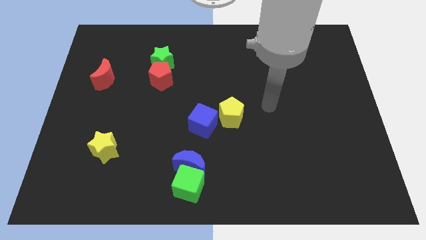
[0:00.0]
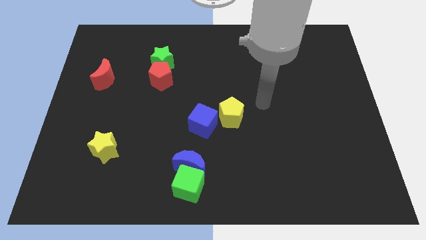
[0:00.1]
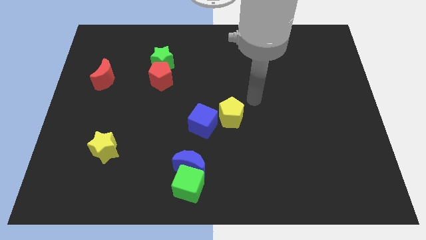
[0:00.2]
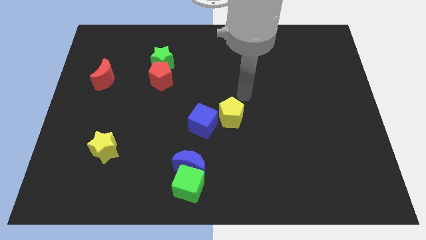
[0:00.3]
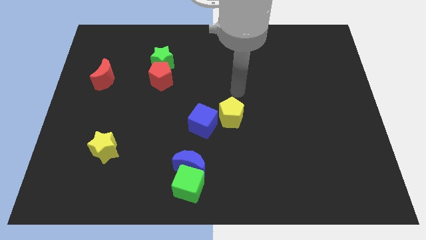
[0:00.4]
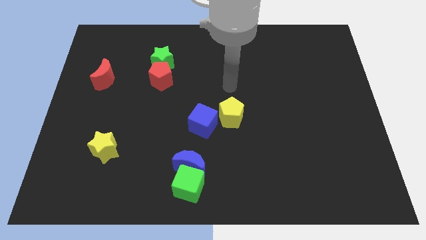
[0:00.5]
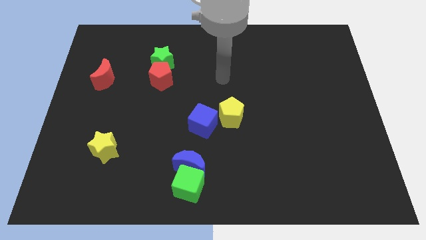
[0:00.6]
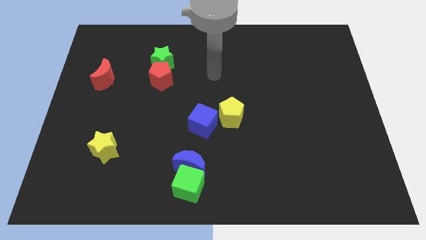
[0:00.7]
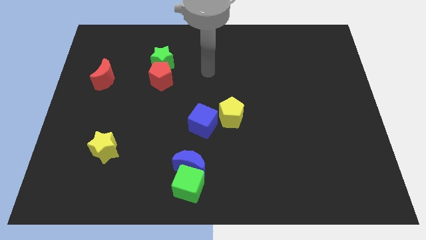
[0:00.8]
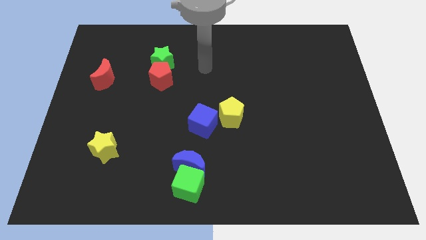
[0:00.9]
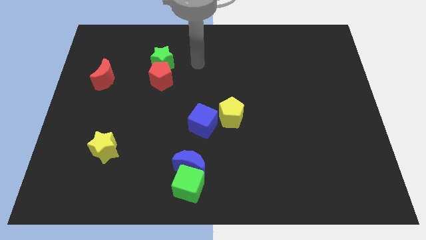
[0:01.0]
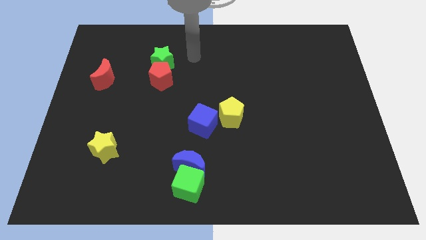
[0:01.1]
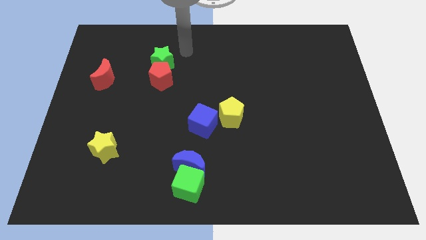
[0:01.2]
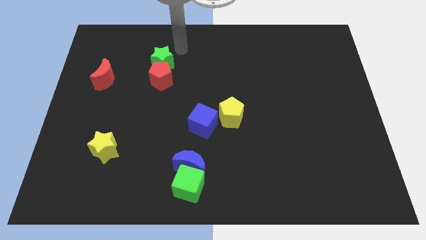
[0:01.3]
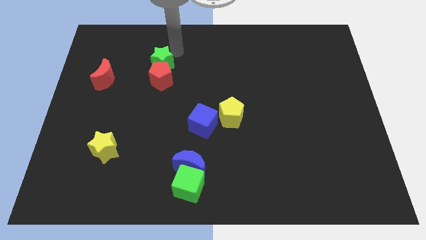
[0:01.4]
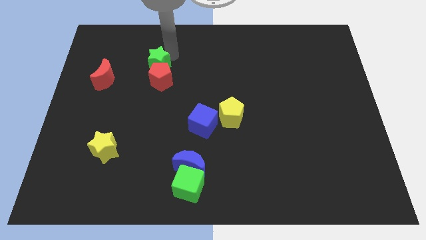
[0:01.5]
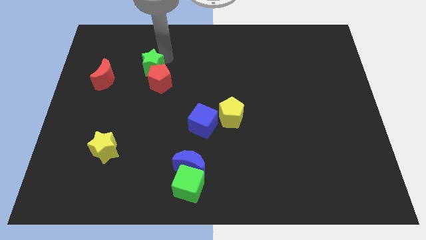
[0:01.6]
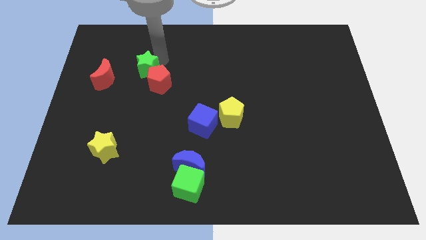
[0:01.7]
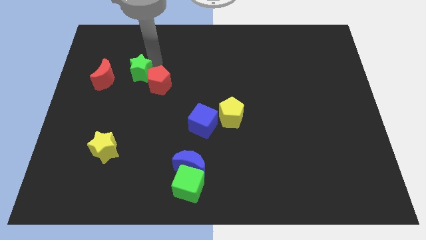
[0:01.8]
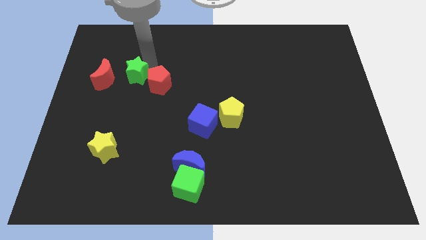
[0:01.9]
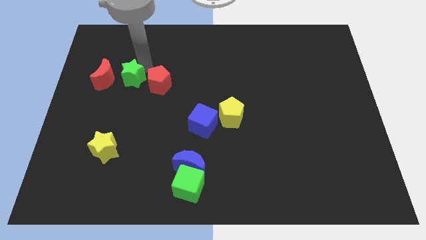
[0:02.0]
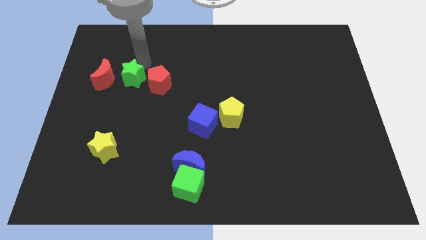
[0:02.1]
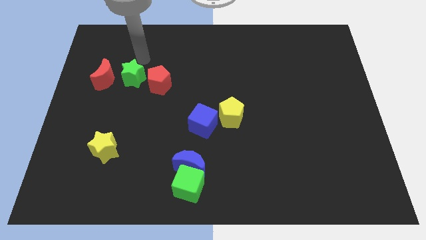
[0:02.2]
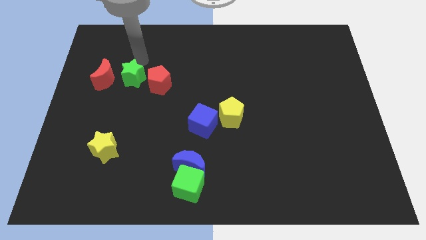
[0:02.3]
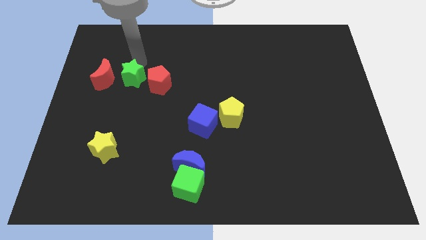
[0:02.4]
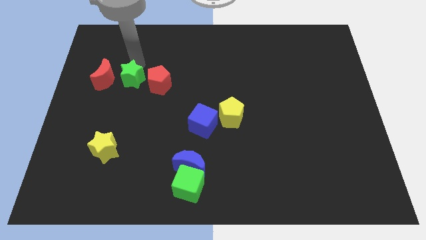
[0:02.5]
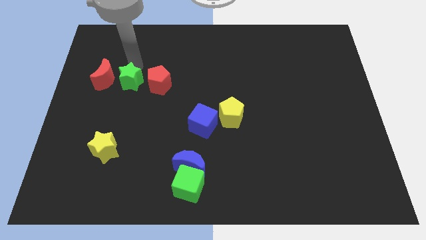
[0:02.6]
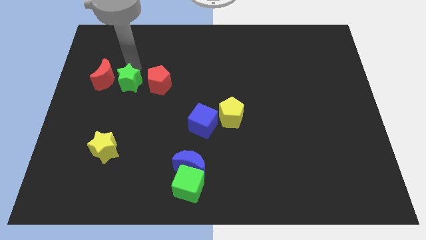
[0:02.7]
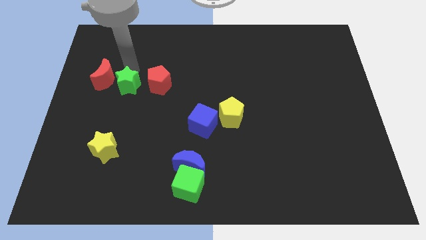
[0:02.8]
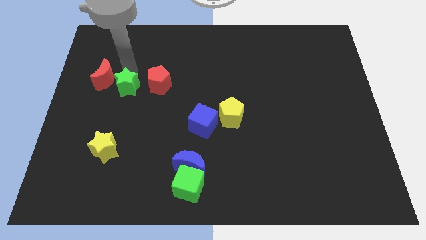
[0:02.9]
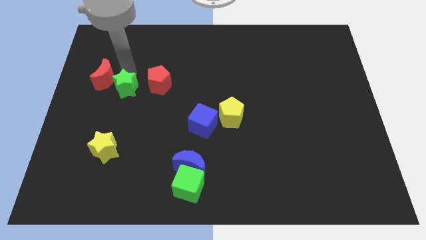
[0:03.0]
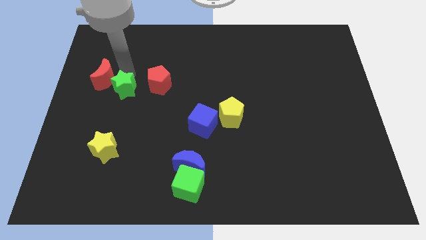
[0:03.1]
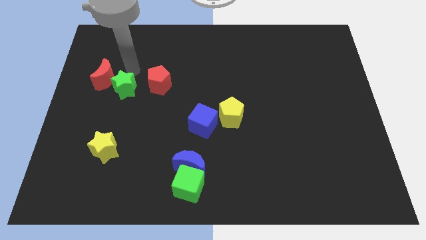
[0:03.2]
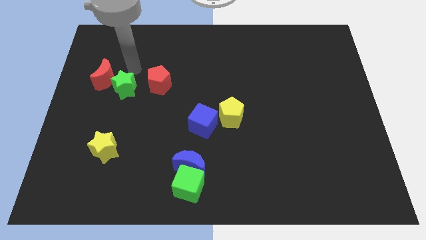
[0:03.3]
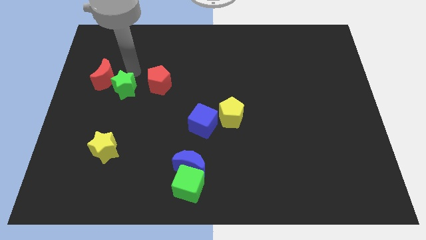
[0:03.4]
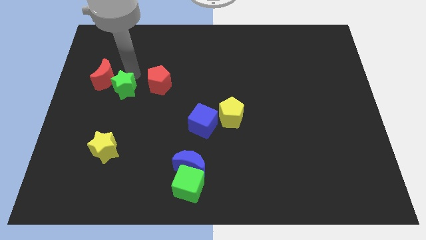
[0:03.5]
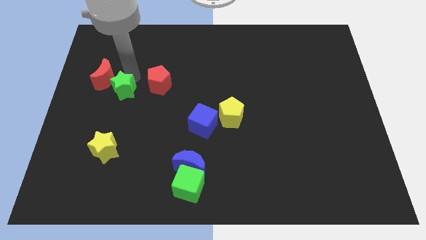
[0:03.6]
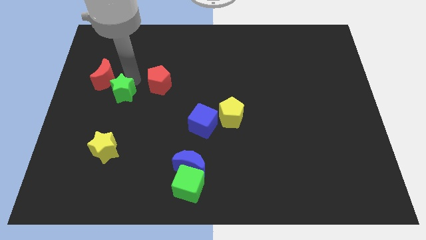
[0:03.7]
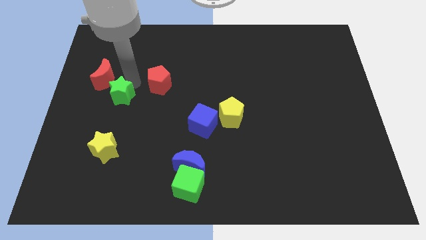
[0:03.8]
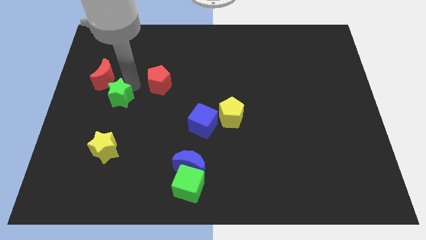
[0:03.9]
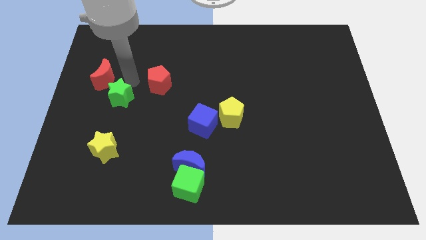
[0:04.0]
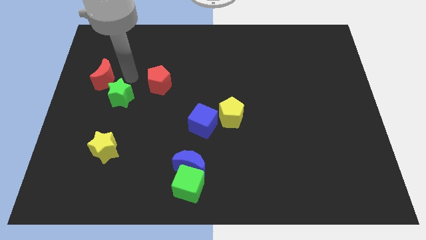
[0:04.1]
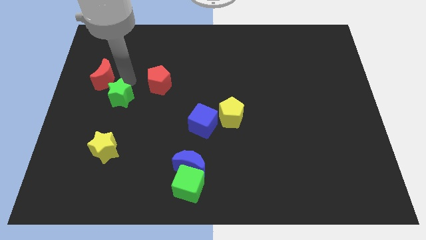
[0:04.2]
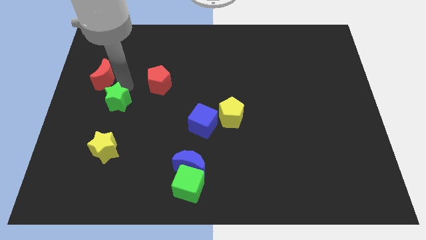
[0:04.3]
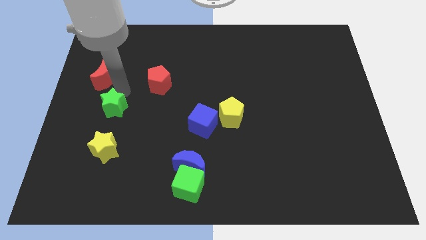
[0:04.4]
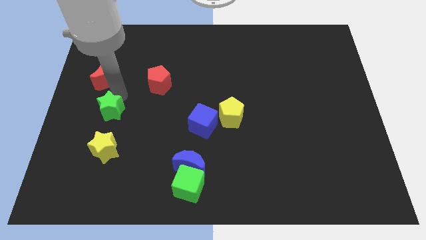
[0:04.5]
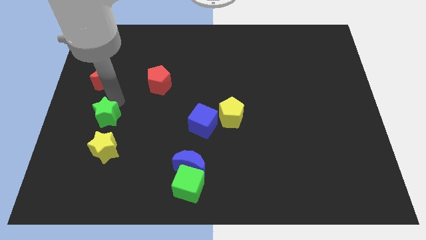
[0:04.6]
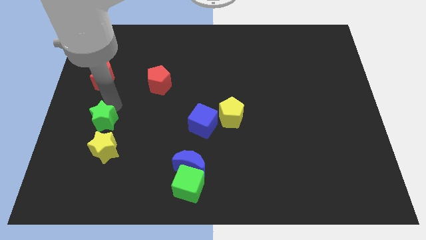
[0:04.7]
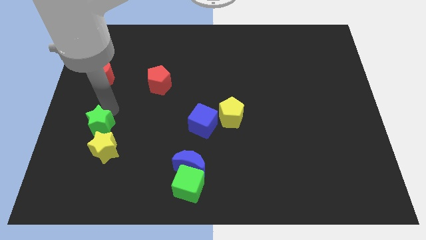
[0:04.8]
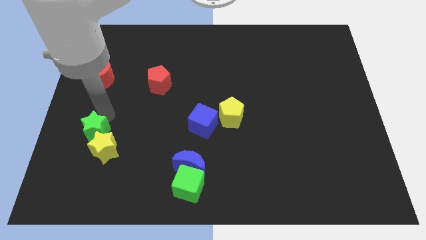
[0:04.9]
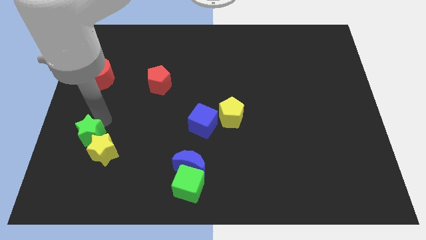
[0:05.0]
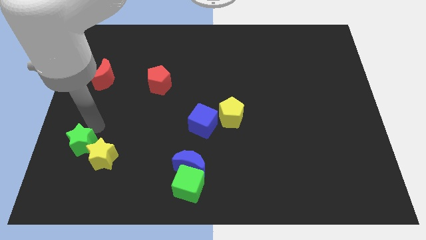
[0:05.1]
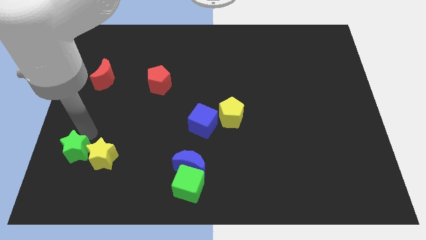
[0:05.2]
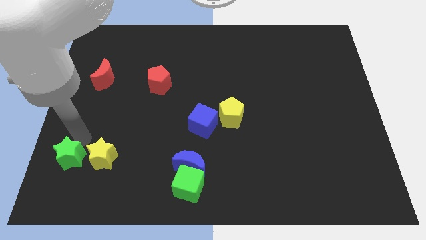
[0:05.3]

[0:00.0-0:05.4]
move the green star diagonally down and to the left of the yellow star

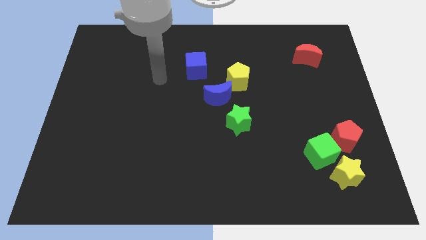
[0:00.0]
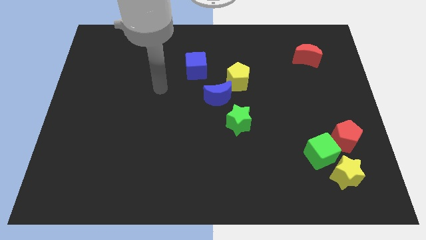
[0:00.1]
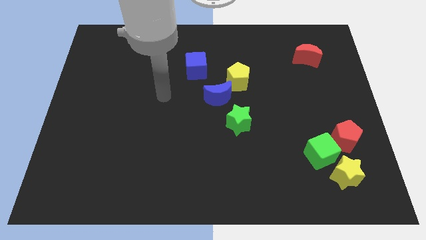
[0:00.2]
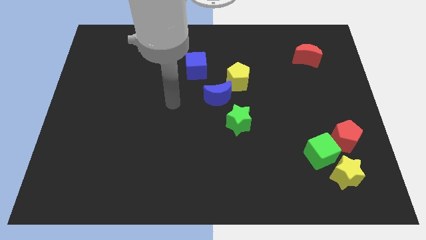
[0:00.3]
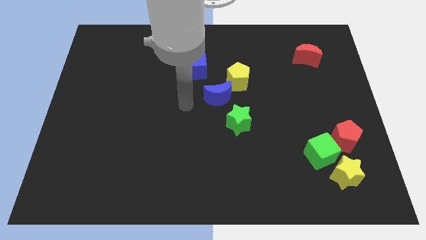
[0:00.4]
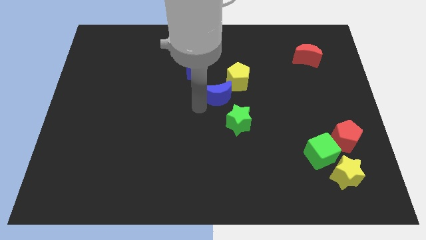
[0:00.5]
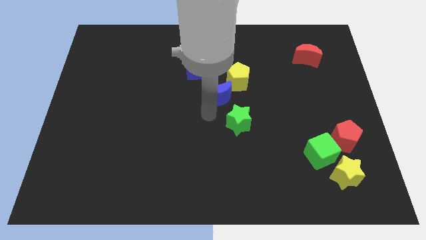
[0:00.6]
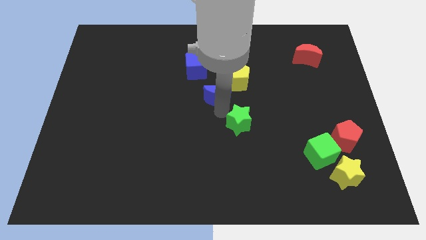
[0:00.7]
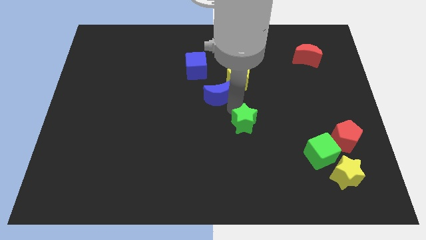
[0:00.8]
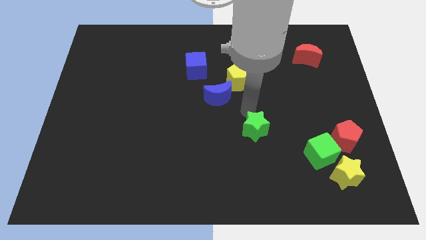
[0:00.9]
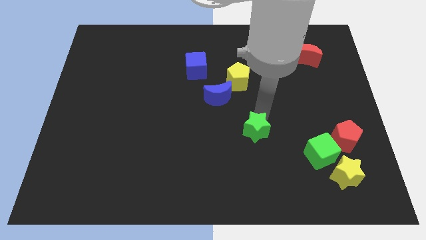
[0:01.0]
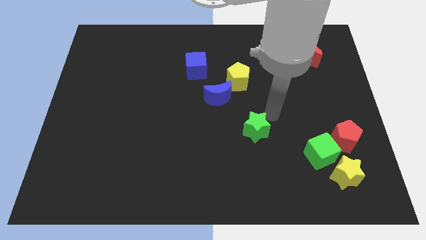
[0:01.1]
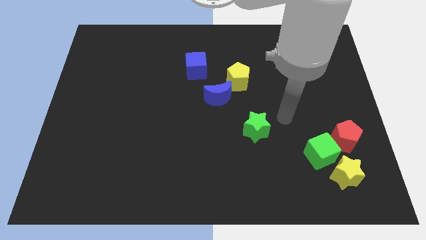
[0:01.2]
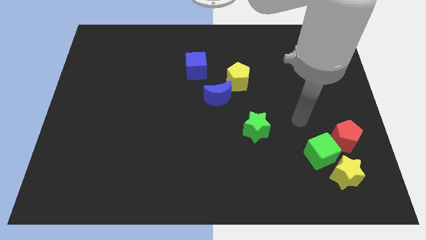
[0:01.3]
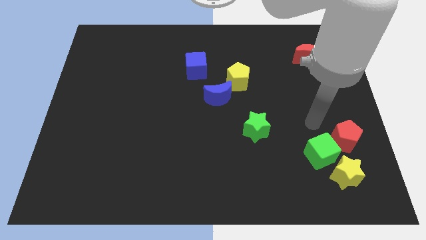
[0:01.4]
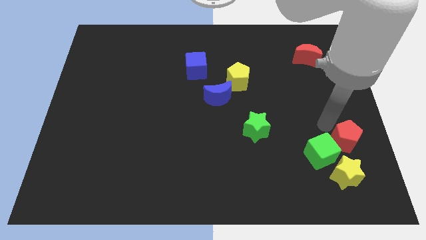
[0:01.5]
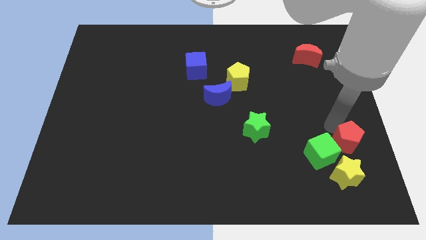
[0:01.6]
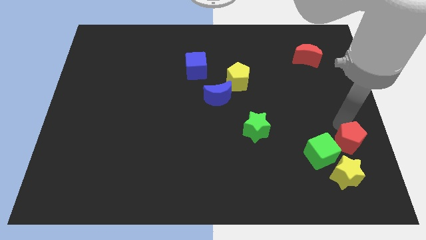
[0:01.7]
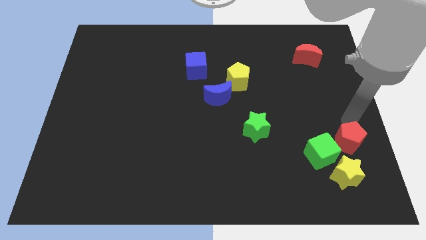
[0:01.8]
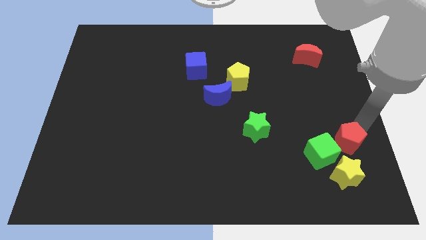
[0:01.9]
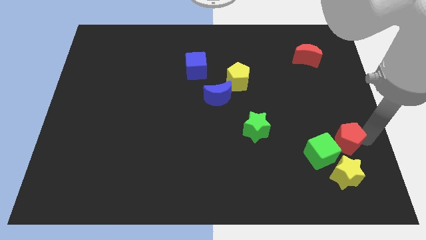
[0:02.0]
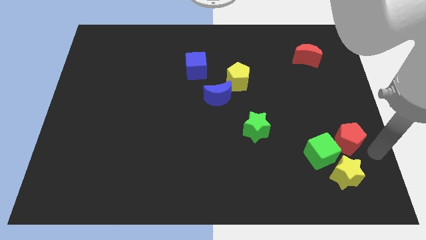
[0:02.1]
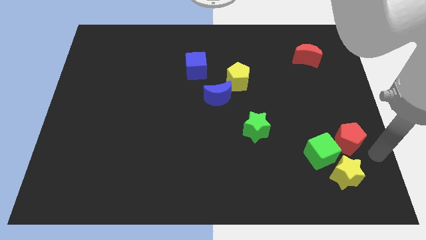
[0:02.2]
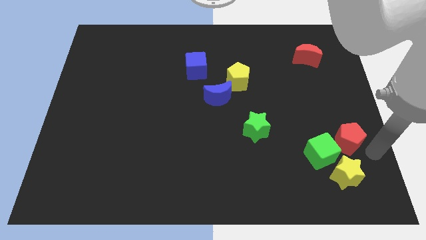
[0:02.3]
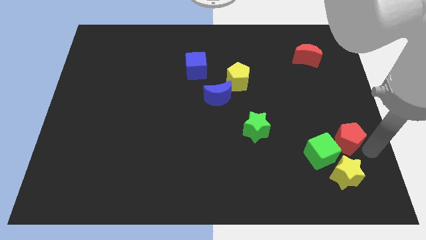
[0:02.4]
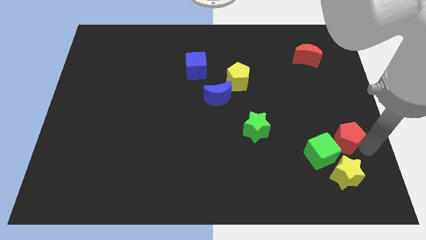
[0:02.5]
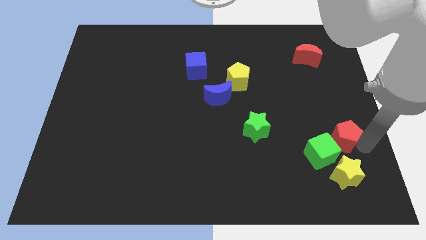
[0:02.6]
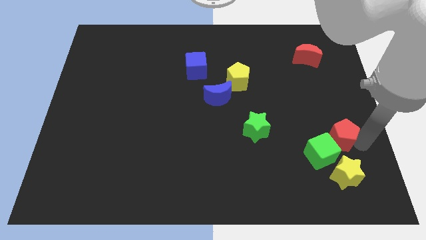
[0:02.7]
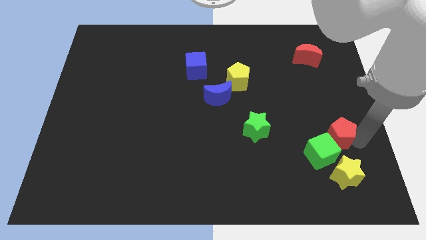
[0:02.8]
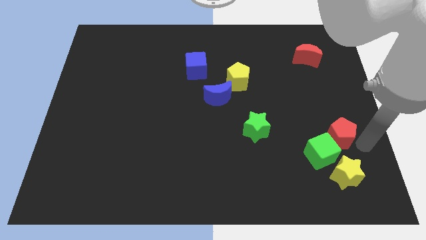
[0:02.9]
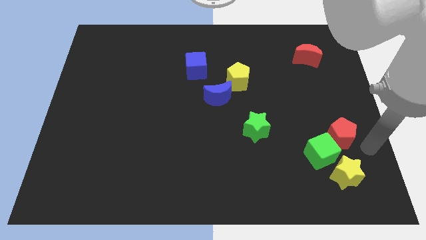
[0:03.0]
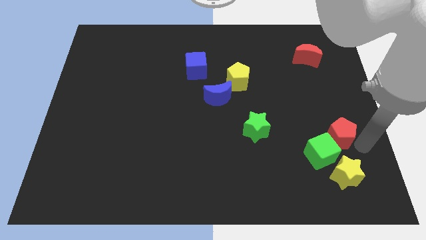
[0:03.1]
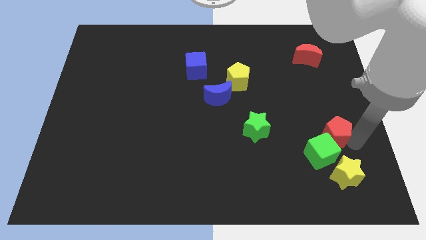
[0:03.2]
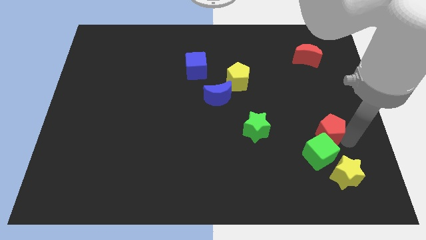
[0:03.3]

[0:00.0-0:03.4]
put the red pentagon to the right of the green star
